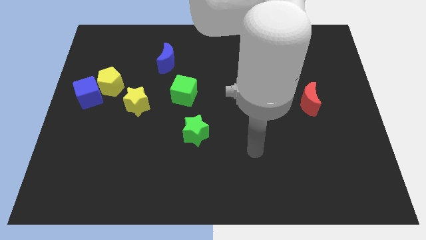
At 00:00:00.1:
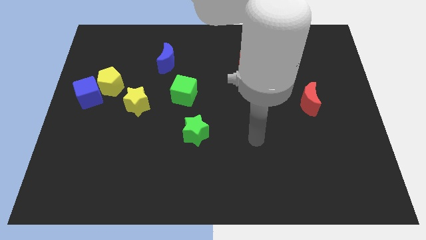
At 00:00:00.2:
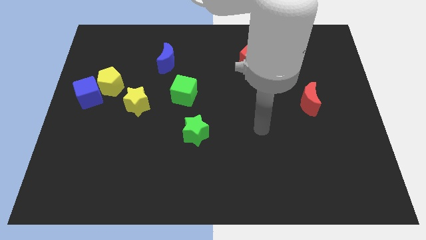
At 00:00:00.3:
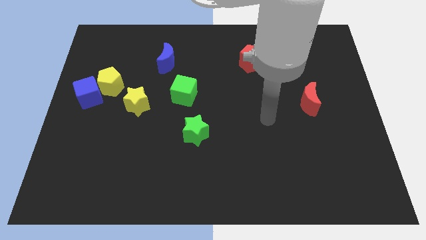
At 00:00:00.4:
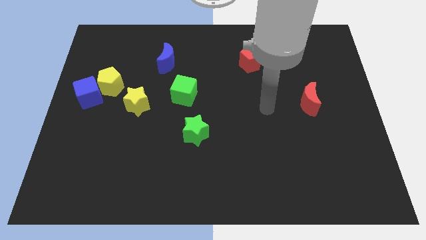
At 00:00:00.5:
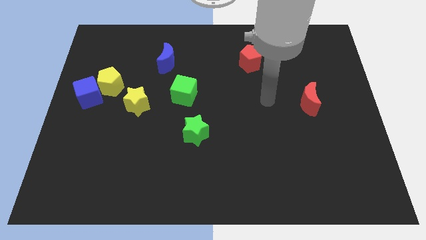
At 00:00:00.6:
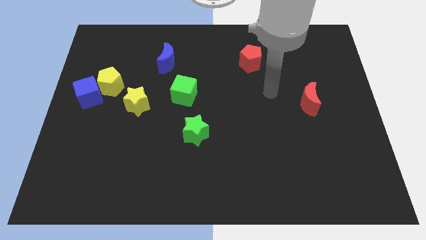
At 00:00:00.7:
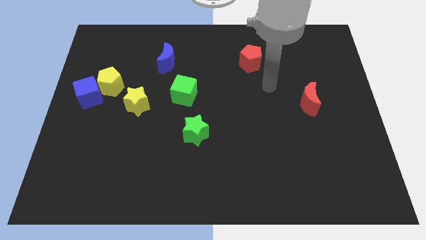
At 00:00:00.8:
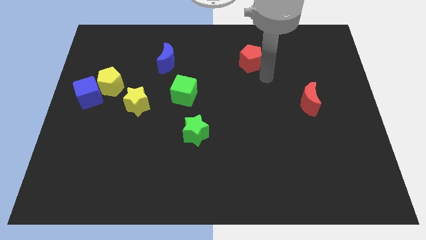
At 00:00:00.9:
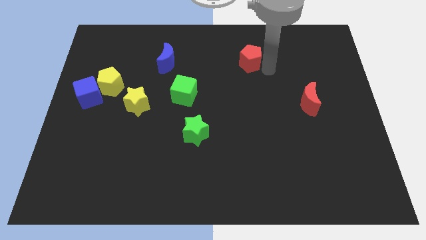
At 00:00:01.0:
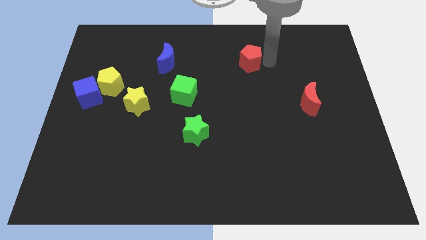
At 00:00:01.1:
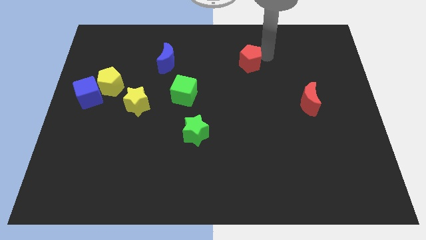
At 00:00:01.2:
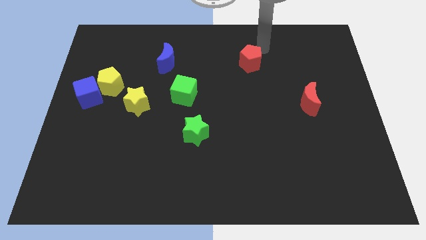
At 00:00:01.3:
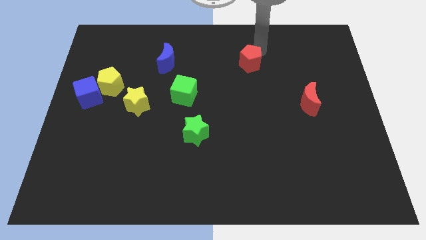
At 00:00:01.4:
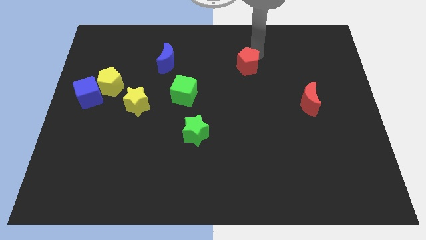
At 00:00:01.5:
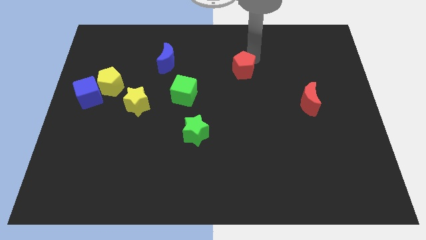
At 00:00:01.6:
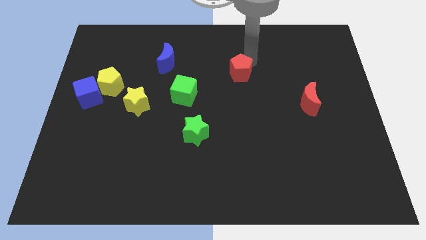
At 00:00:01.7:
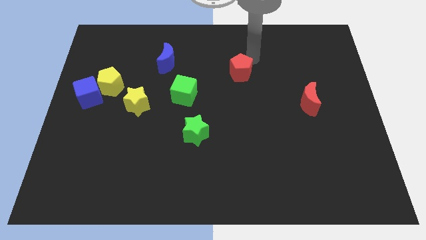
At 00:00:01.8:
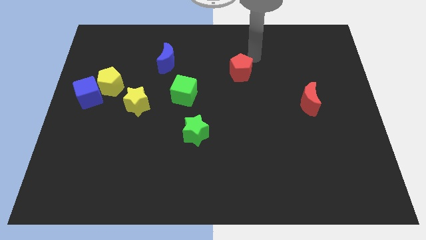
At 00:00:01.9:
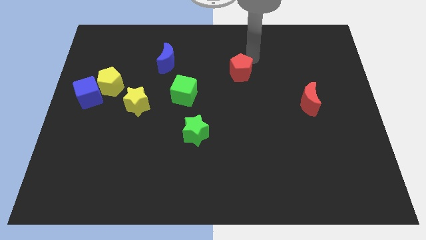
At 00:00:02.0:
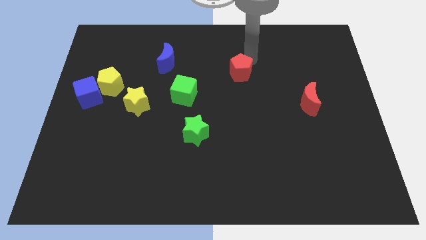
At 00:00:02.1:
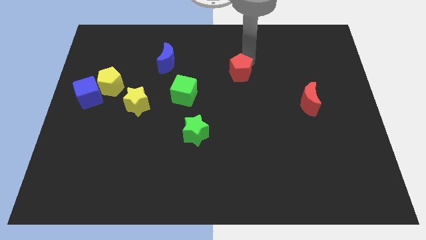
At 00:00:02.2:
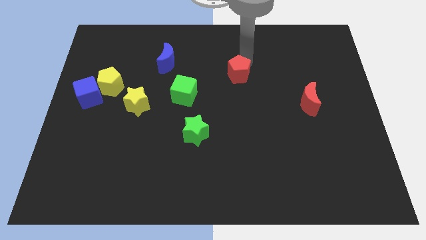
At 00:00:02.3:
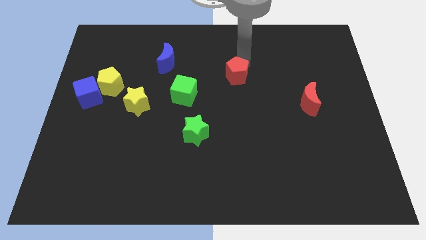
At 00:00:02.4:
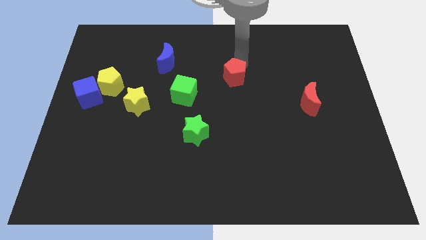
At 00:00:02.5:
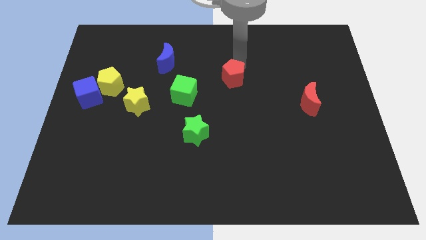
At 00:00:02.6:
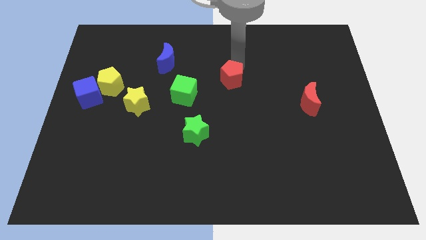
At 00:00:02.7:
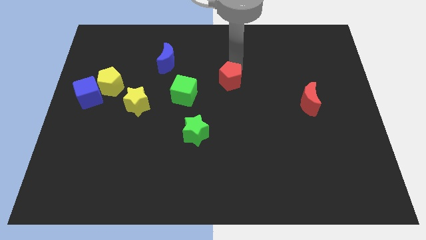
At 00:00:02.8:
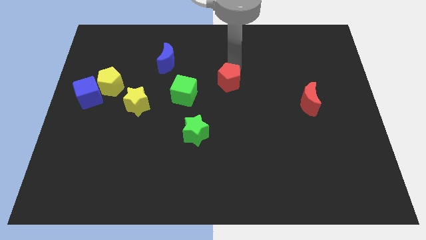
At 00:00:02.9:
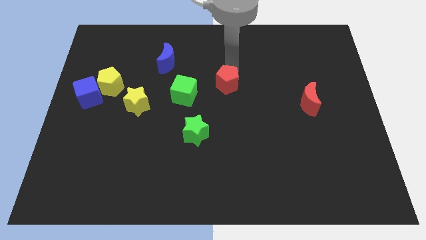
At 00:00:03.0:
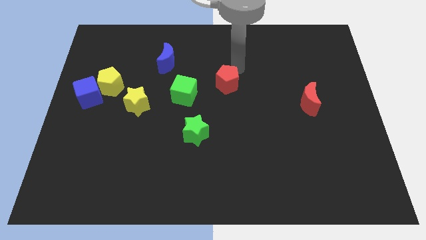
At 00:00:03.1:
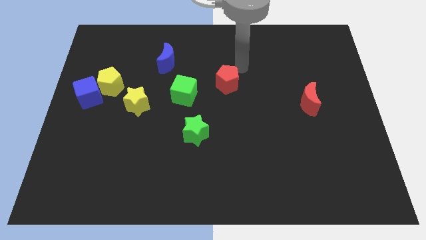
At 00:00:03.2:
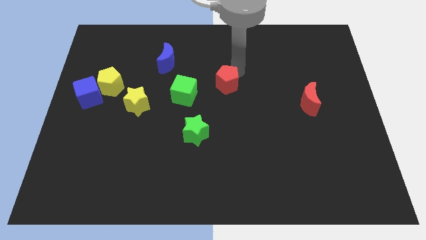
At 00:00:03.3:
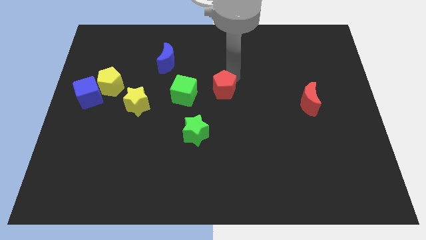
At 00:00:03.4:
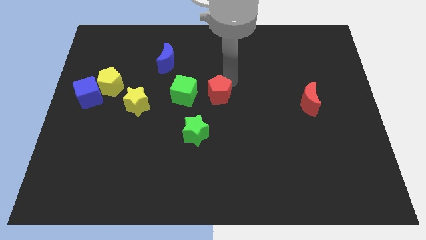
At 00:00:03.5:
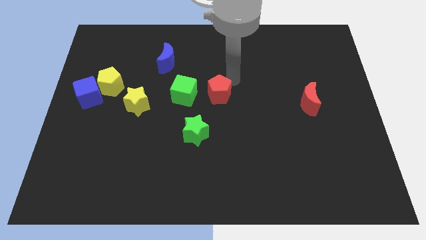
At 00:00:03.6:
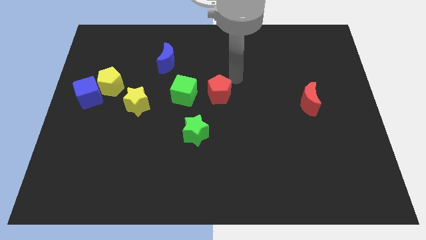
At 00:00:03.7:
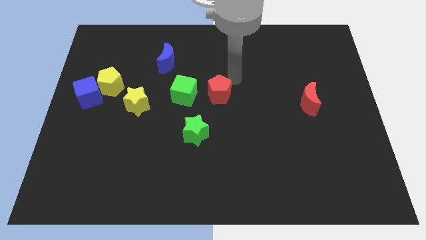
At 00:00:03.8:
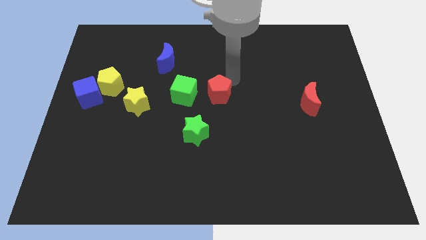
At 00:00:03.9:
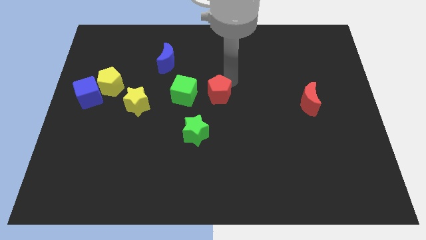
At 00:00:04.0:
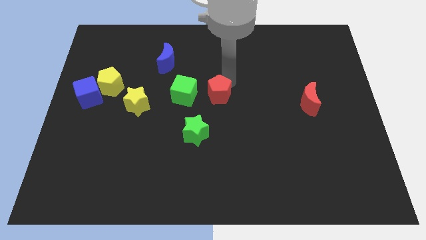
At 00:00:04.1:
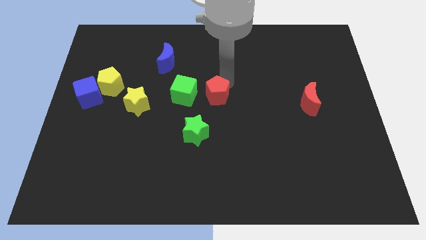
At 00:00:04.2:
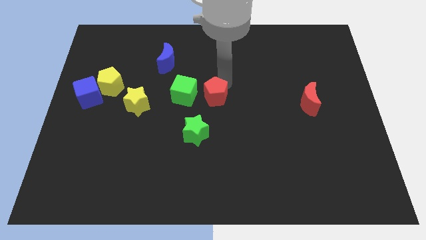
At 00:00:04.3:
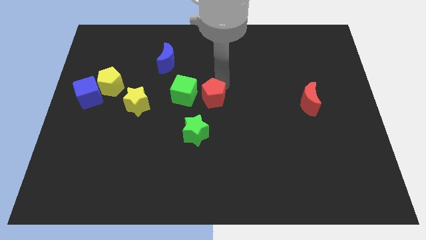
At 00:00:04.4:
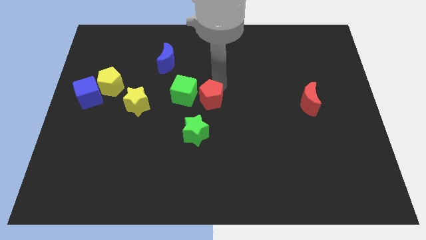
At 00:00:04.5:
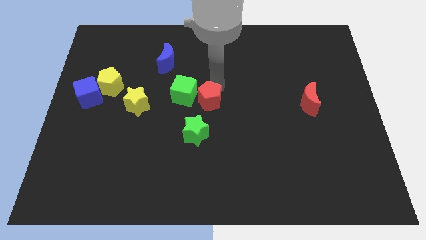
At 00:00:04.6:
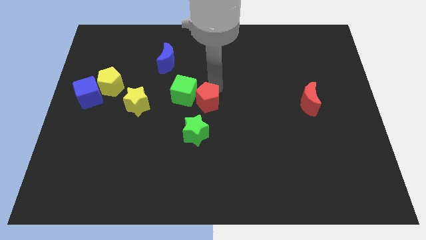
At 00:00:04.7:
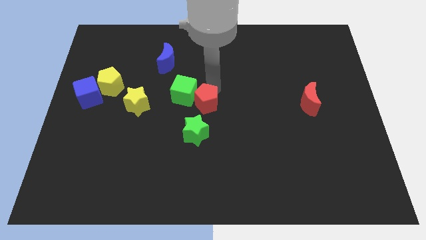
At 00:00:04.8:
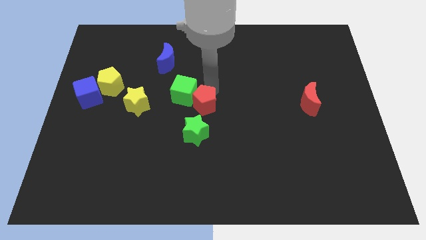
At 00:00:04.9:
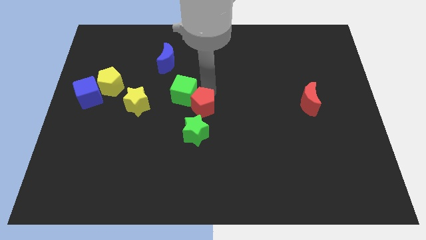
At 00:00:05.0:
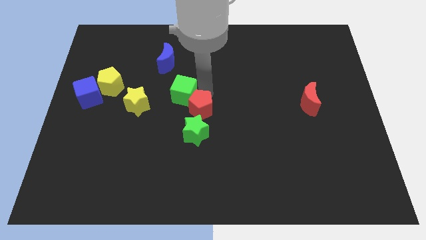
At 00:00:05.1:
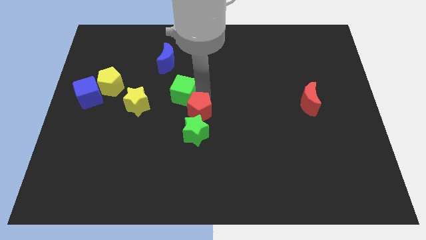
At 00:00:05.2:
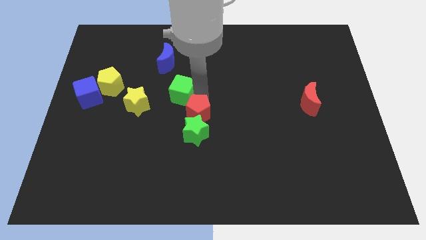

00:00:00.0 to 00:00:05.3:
push the red pentagon next to the green star

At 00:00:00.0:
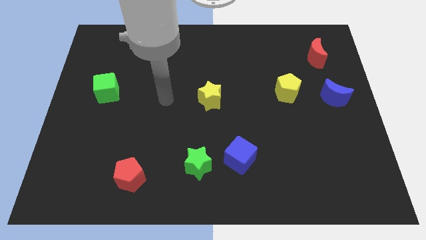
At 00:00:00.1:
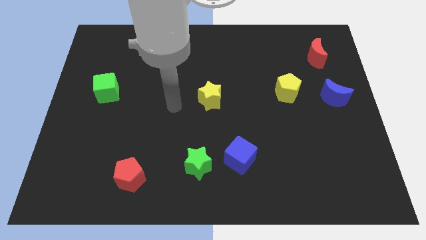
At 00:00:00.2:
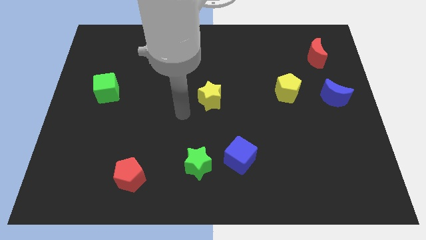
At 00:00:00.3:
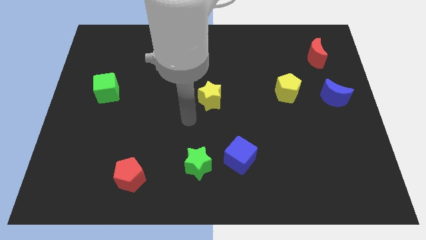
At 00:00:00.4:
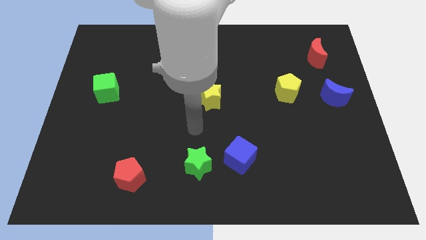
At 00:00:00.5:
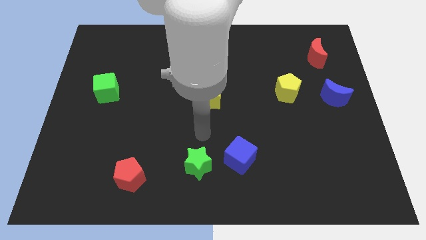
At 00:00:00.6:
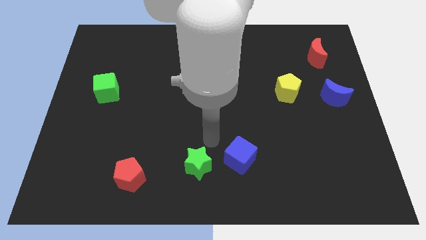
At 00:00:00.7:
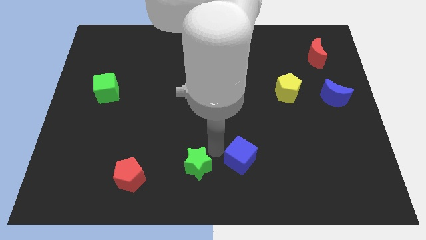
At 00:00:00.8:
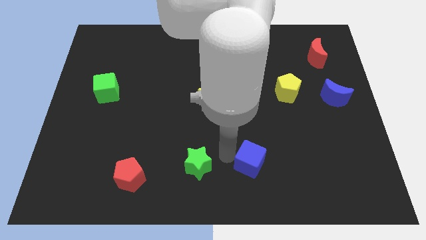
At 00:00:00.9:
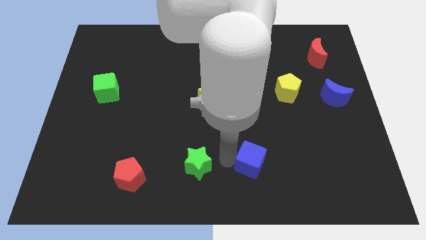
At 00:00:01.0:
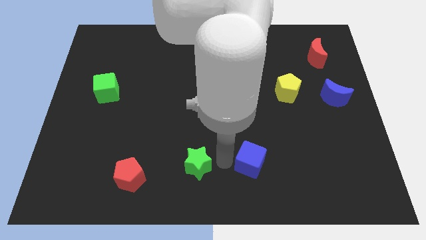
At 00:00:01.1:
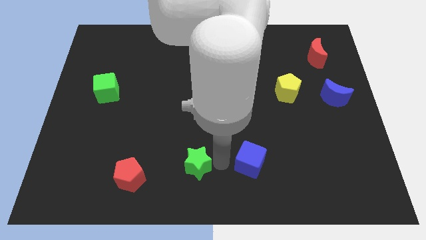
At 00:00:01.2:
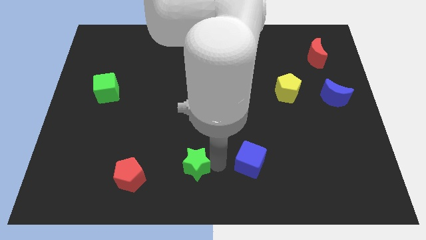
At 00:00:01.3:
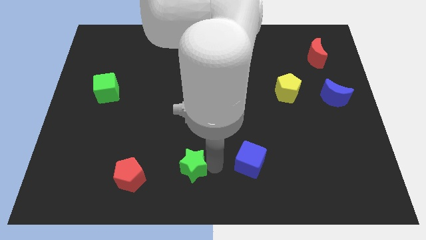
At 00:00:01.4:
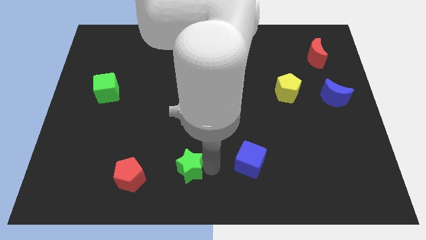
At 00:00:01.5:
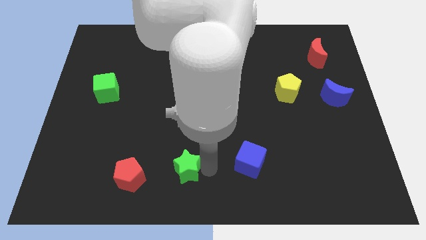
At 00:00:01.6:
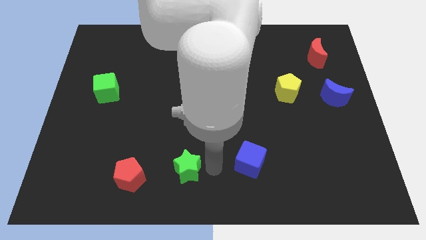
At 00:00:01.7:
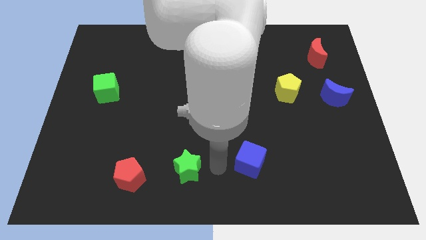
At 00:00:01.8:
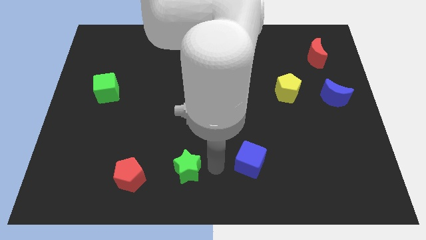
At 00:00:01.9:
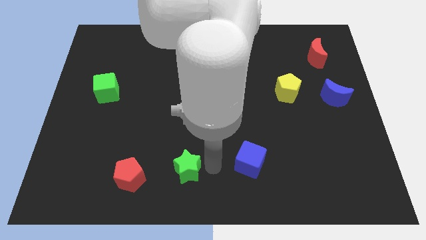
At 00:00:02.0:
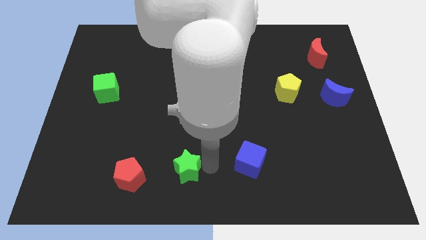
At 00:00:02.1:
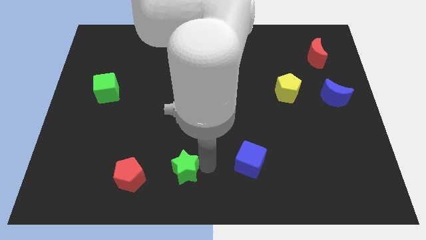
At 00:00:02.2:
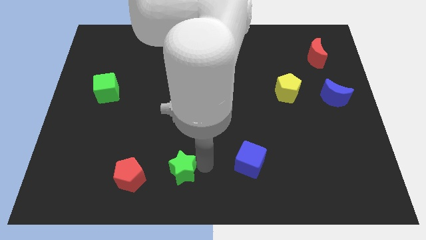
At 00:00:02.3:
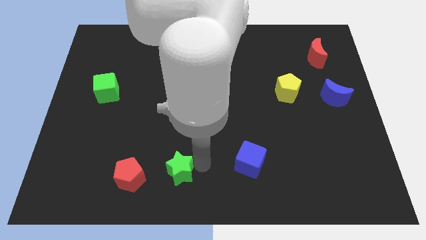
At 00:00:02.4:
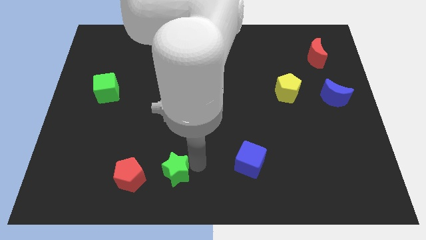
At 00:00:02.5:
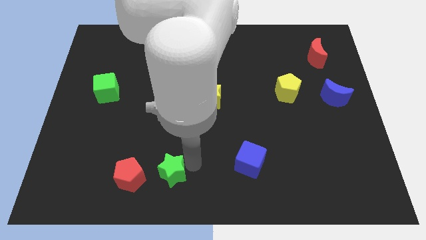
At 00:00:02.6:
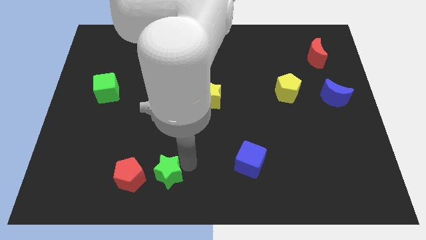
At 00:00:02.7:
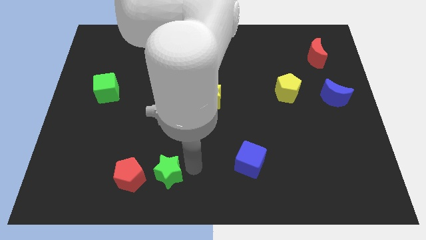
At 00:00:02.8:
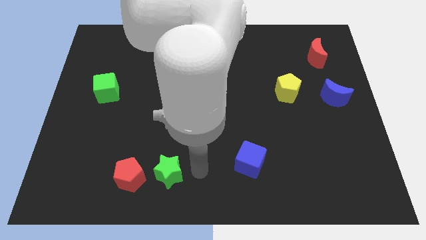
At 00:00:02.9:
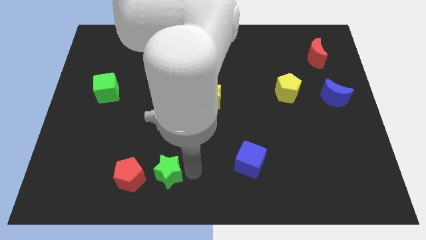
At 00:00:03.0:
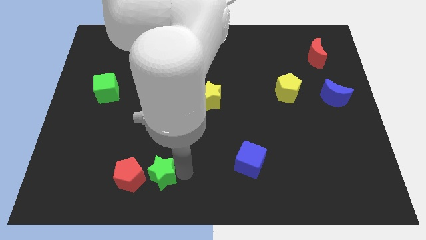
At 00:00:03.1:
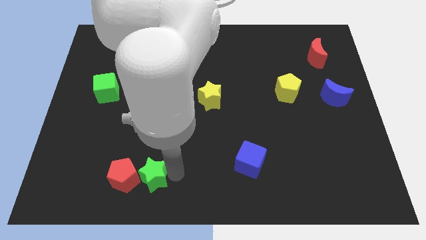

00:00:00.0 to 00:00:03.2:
push the green star to the red pentagon
